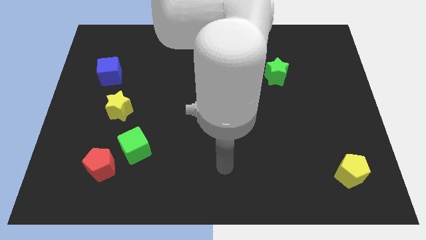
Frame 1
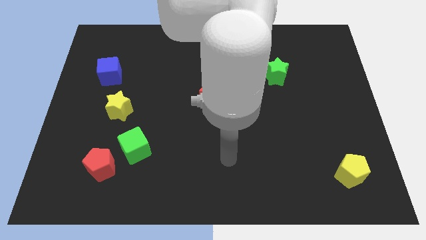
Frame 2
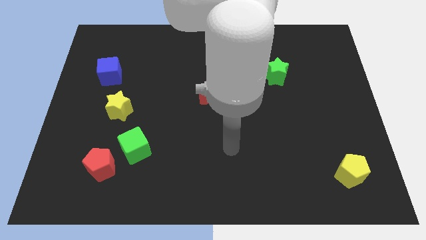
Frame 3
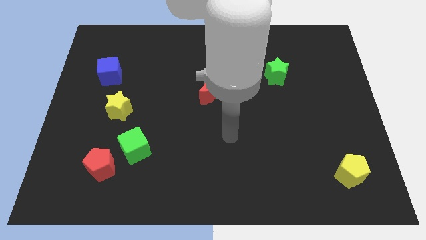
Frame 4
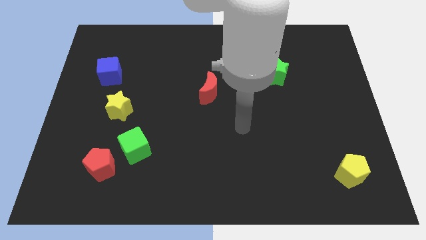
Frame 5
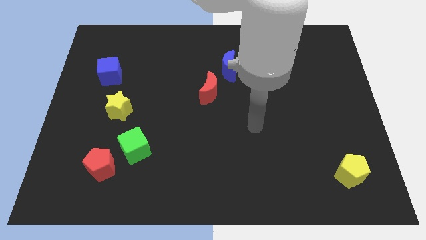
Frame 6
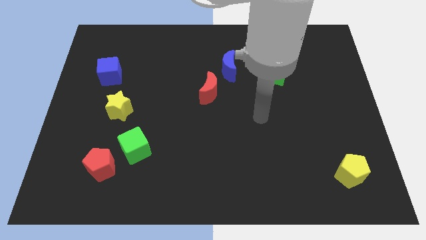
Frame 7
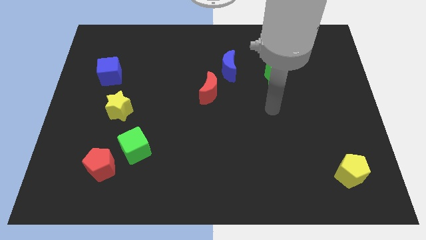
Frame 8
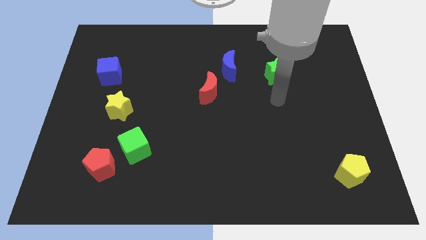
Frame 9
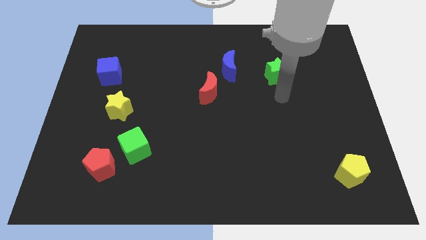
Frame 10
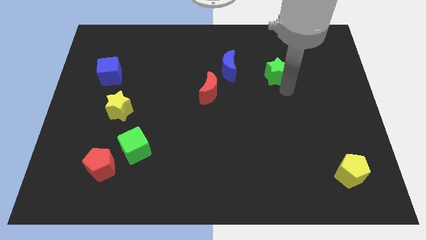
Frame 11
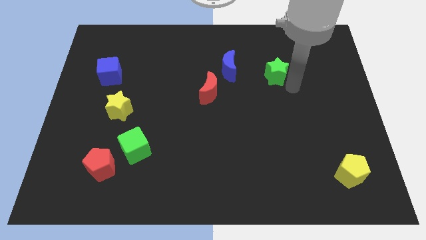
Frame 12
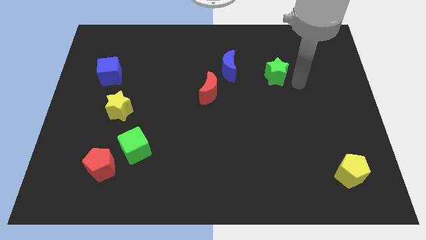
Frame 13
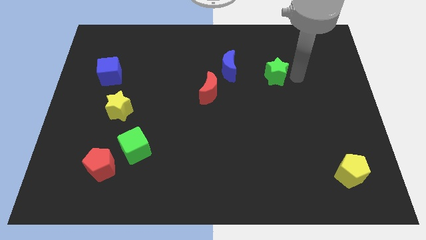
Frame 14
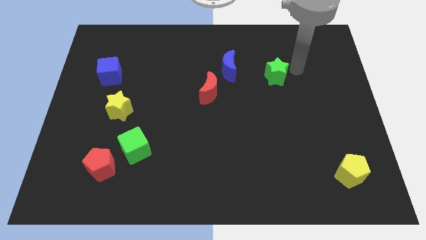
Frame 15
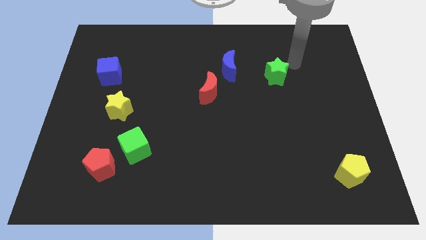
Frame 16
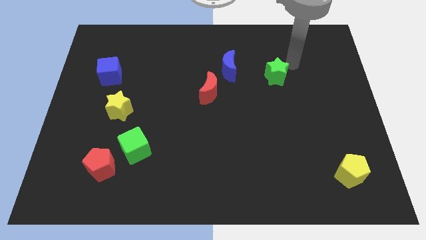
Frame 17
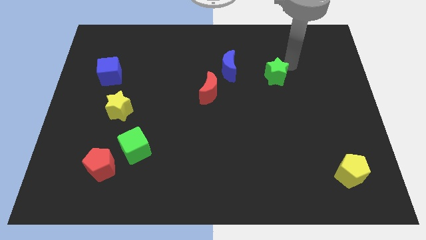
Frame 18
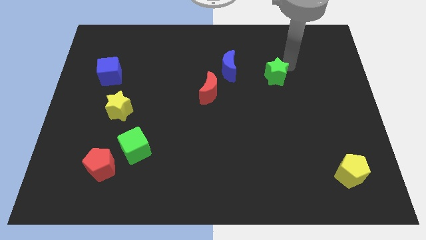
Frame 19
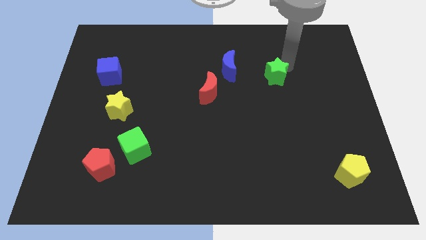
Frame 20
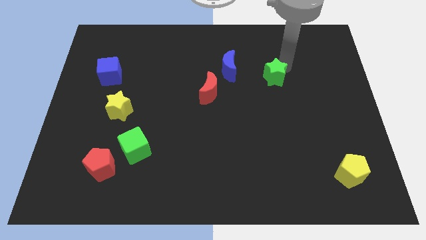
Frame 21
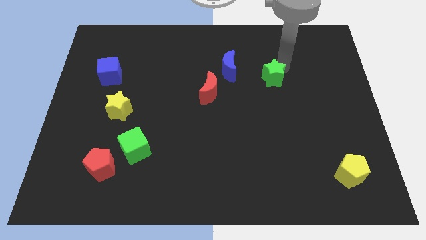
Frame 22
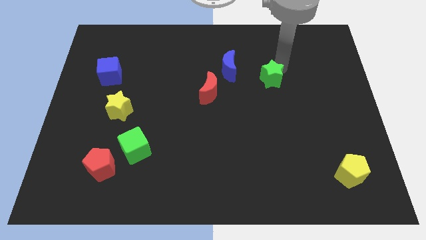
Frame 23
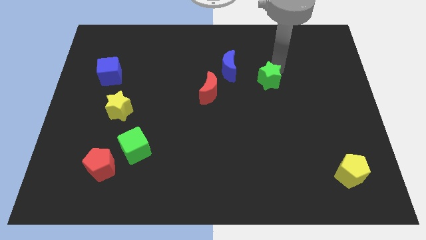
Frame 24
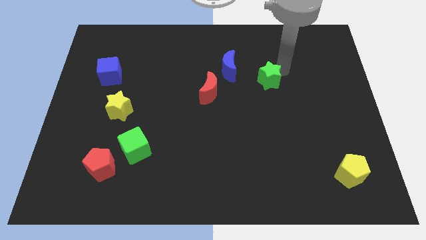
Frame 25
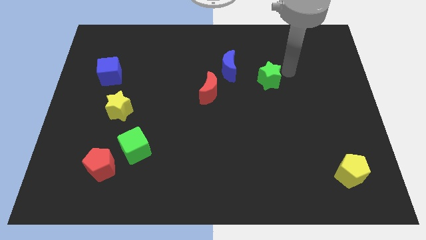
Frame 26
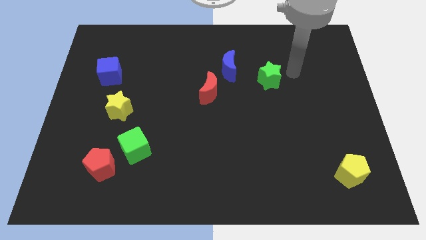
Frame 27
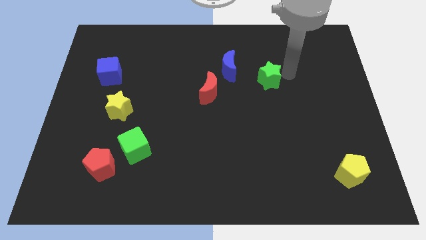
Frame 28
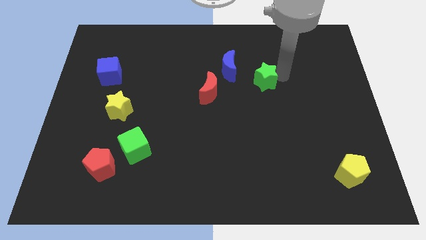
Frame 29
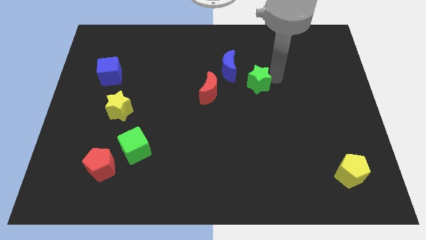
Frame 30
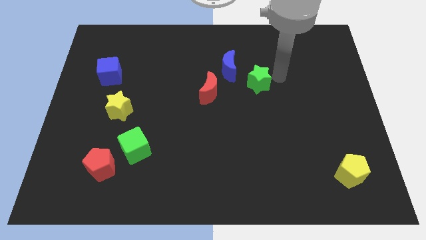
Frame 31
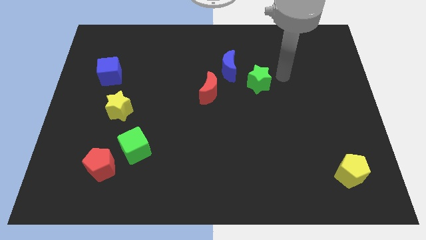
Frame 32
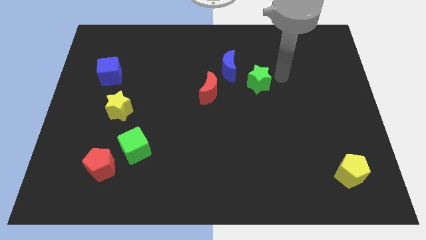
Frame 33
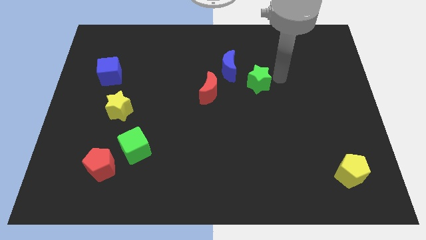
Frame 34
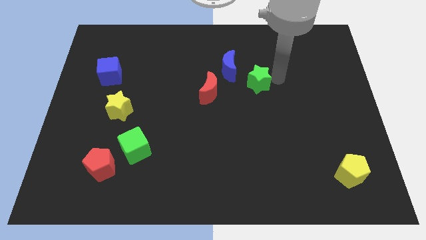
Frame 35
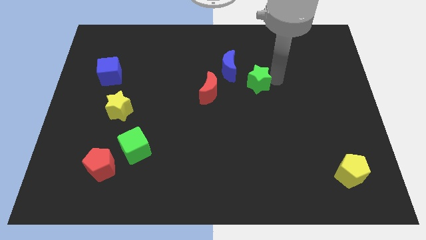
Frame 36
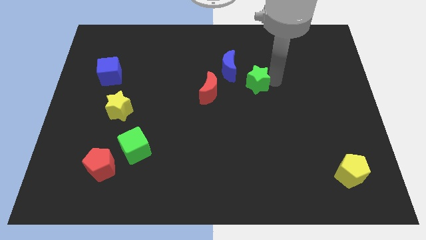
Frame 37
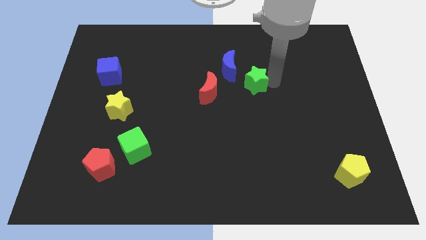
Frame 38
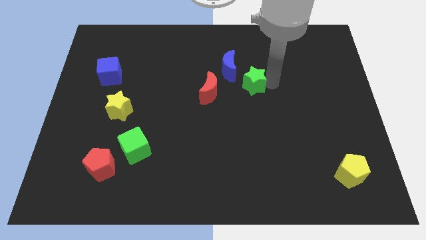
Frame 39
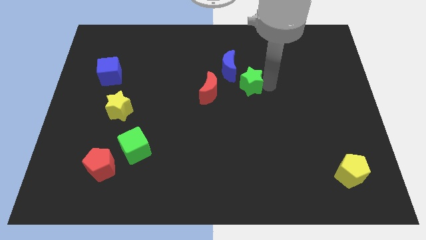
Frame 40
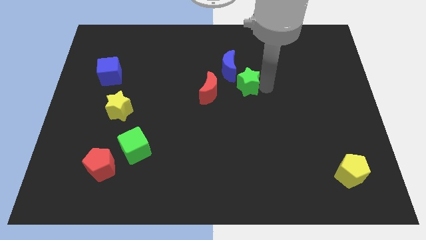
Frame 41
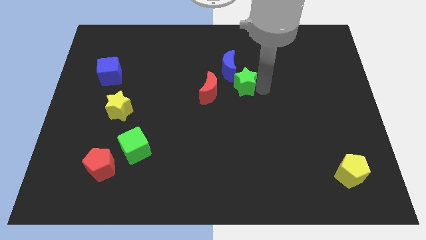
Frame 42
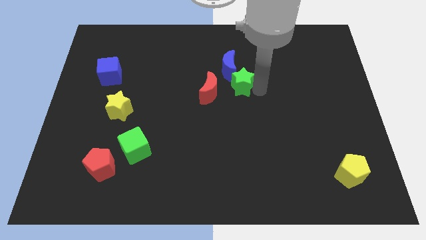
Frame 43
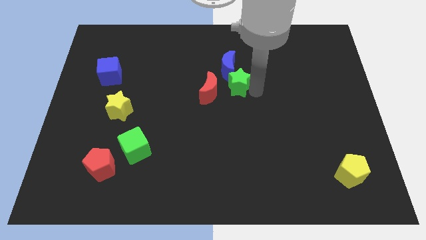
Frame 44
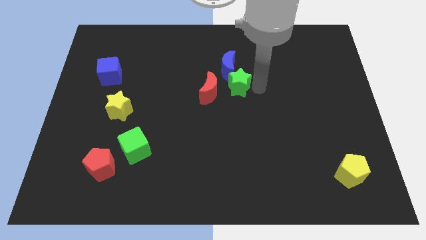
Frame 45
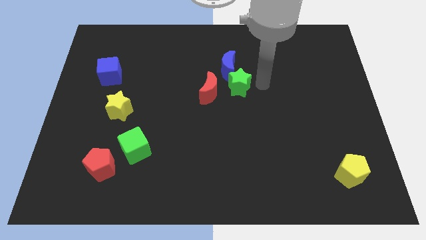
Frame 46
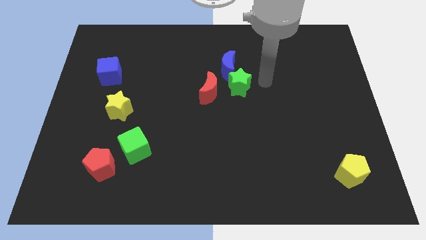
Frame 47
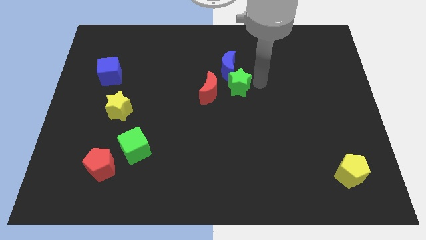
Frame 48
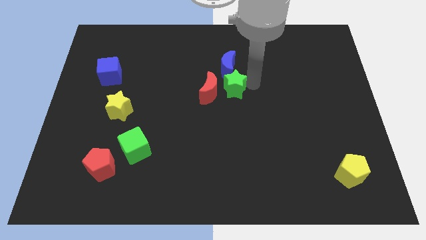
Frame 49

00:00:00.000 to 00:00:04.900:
slide the green star next to the red moon

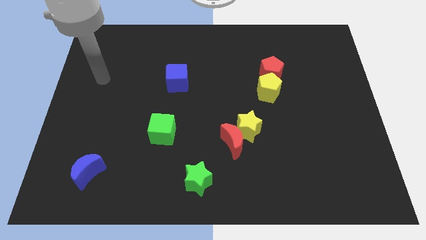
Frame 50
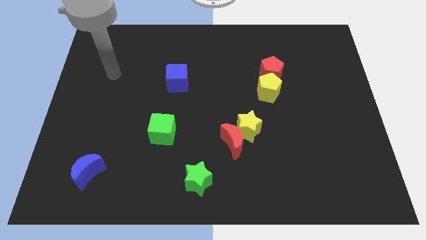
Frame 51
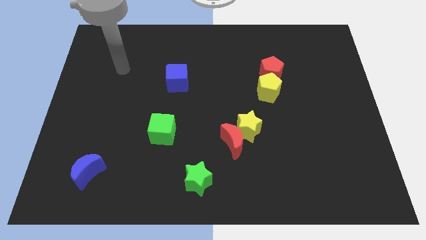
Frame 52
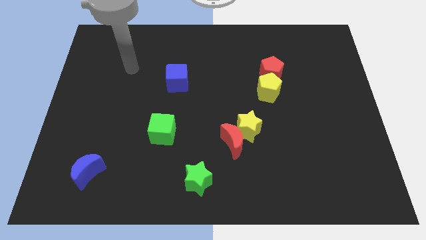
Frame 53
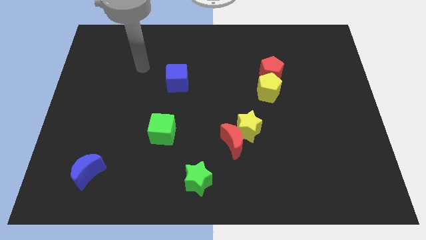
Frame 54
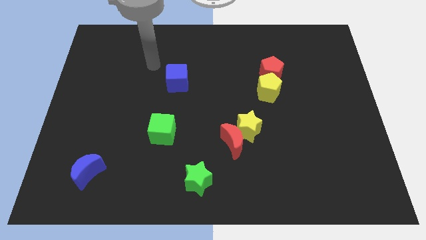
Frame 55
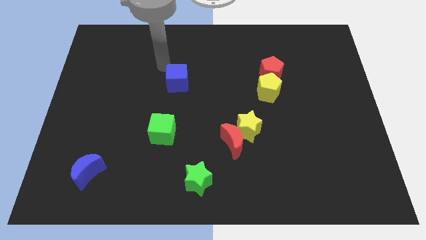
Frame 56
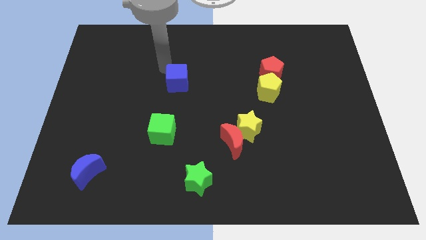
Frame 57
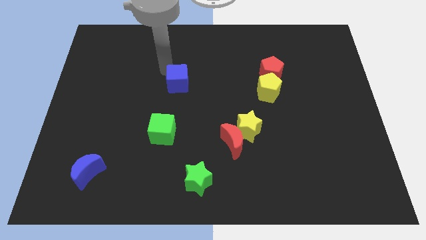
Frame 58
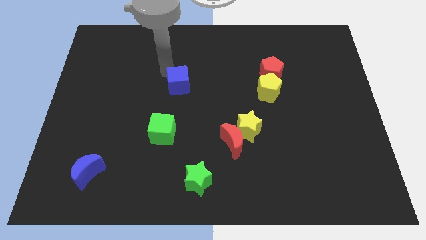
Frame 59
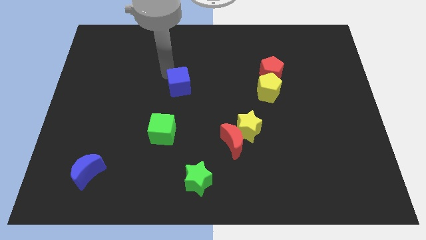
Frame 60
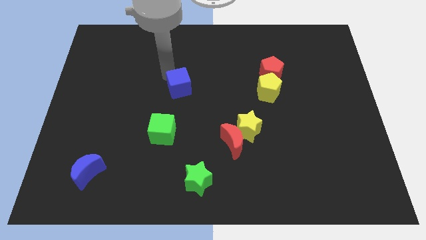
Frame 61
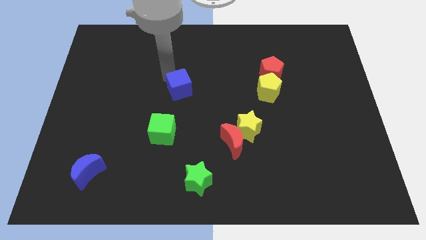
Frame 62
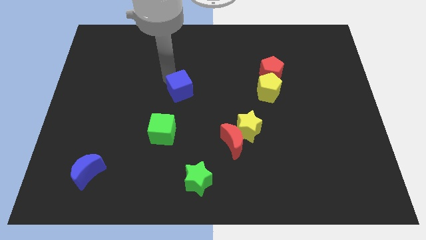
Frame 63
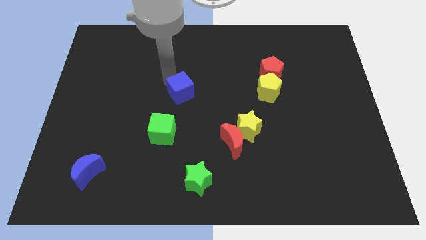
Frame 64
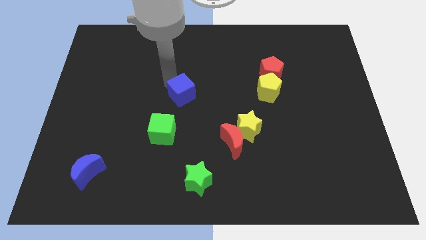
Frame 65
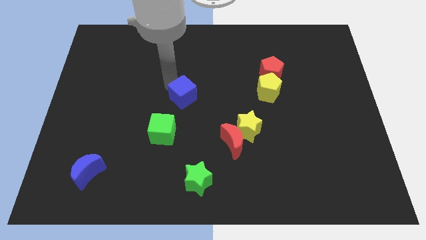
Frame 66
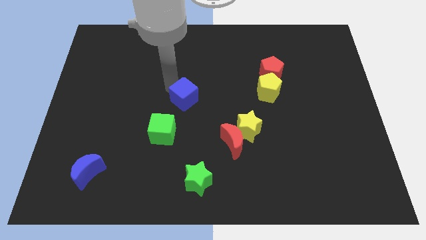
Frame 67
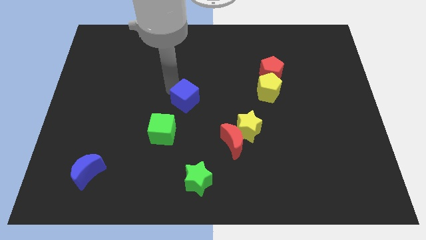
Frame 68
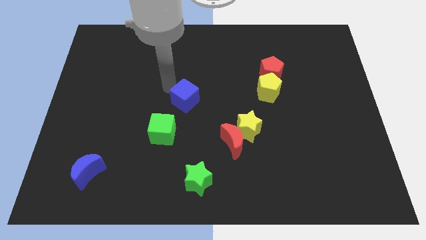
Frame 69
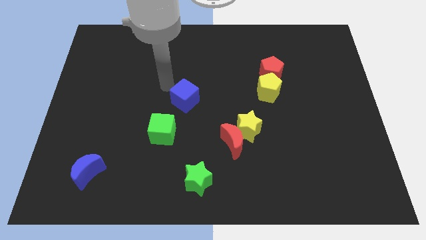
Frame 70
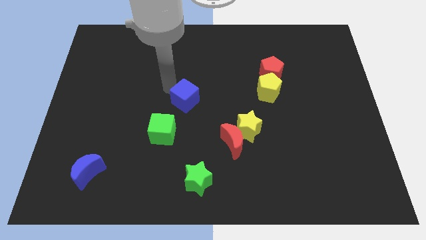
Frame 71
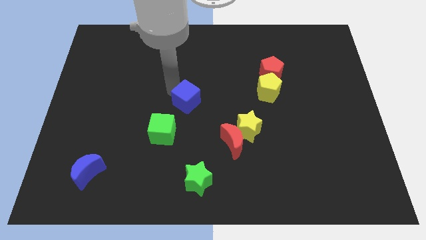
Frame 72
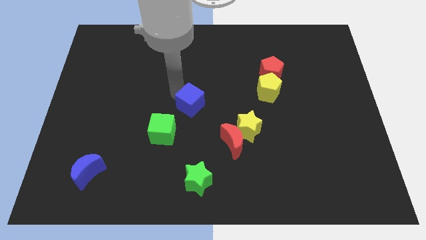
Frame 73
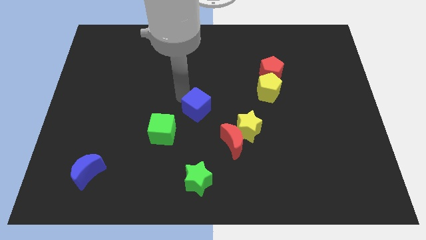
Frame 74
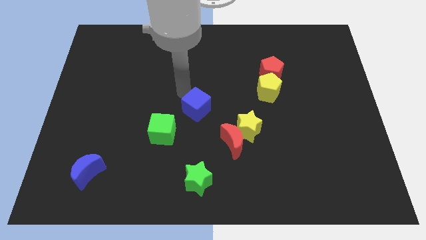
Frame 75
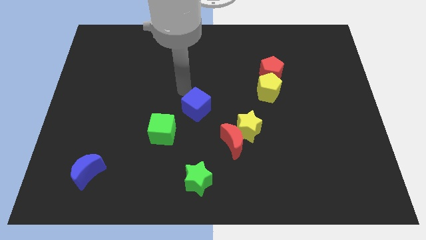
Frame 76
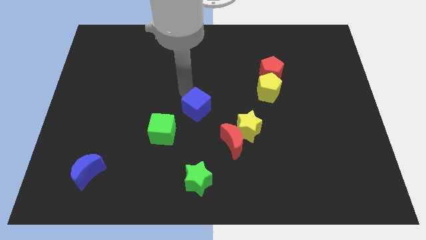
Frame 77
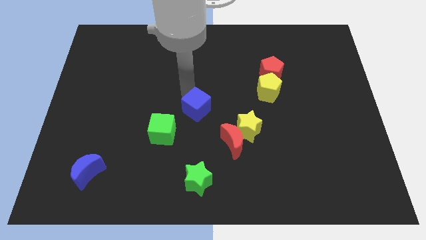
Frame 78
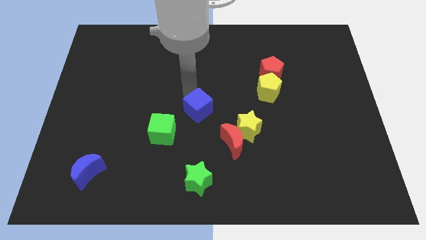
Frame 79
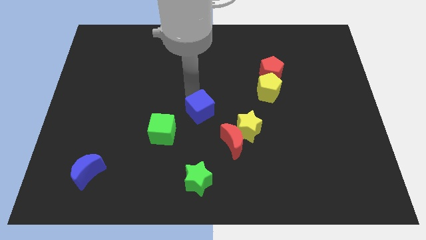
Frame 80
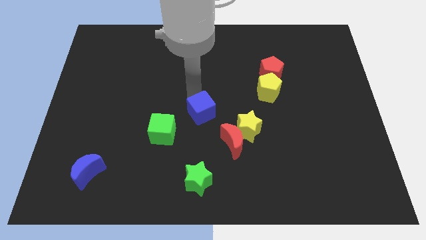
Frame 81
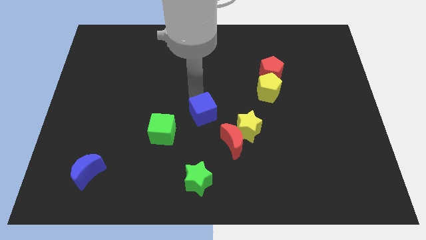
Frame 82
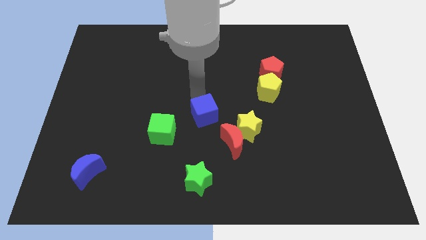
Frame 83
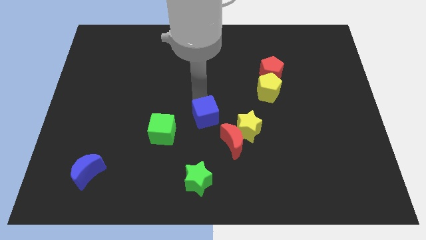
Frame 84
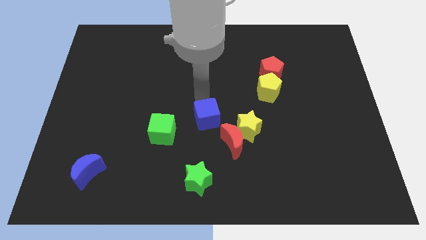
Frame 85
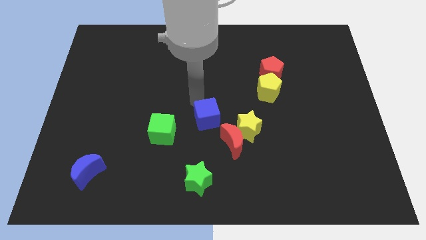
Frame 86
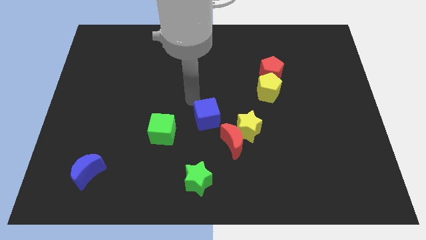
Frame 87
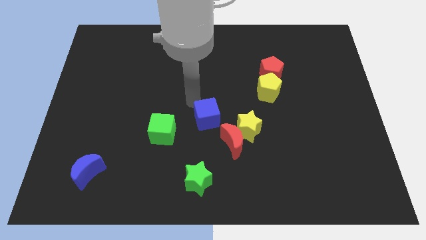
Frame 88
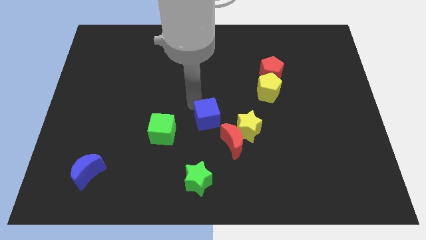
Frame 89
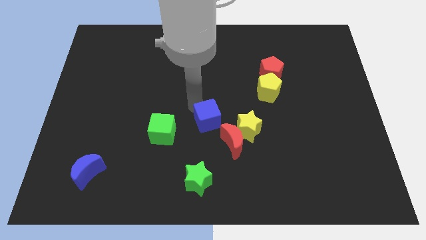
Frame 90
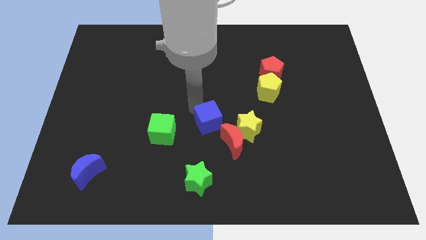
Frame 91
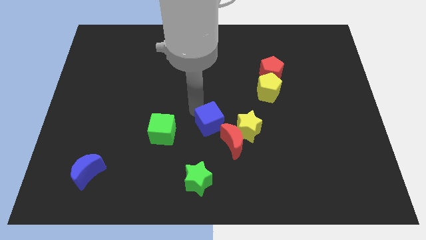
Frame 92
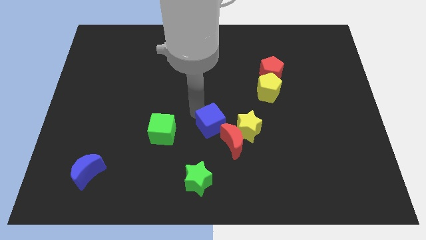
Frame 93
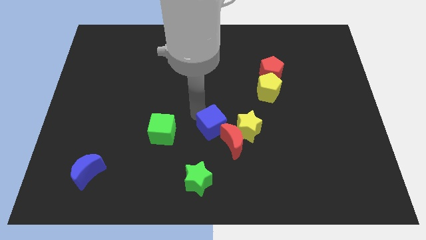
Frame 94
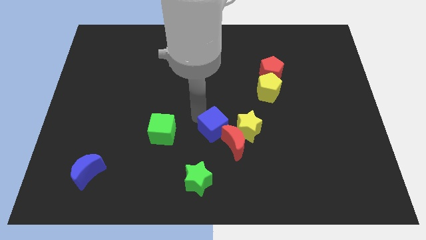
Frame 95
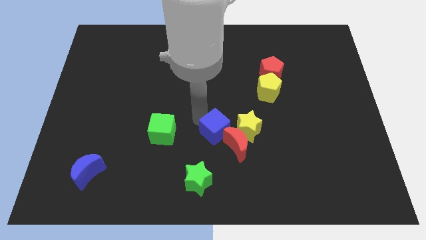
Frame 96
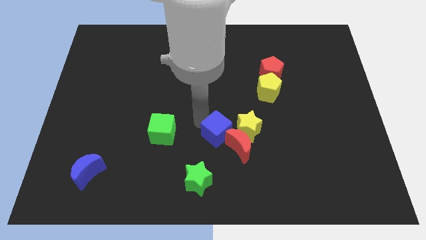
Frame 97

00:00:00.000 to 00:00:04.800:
put the blue cube close to the red moon
